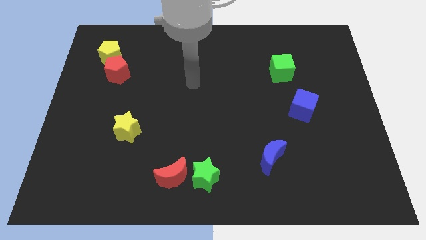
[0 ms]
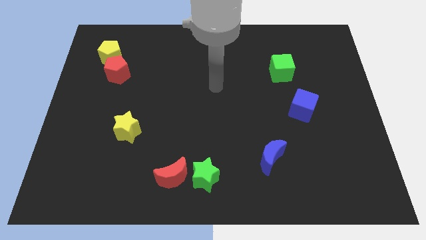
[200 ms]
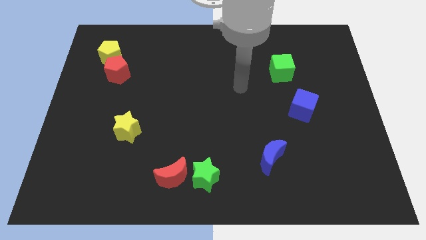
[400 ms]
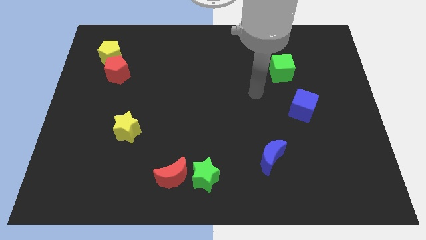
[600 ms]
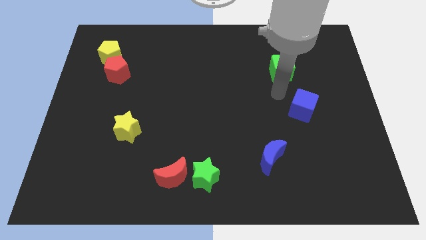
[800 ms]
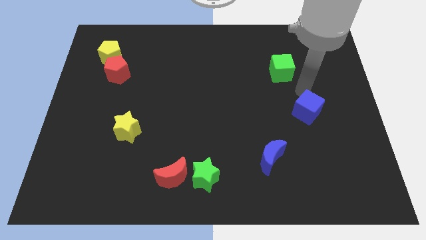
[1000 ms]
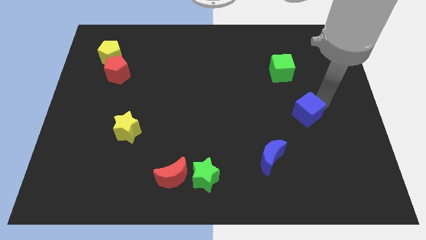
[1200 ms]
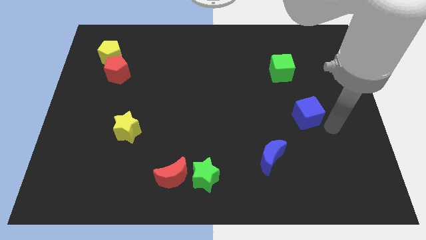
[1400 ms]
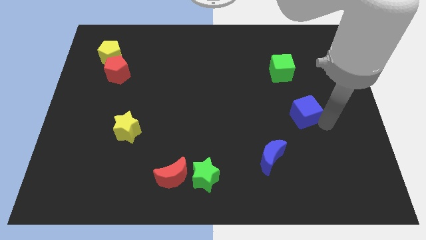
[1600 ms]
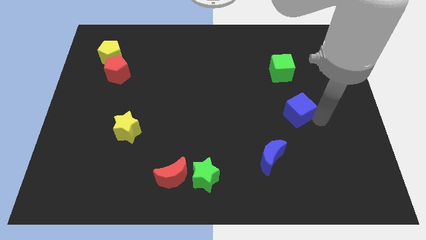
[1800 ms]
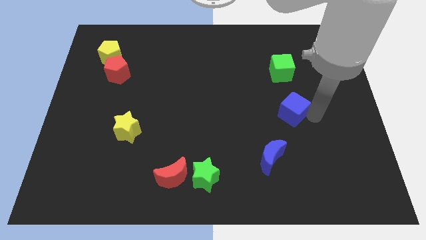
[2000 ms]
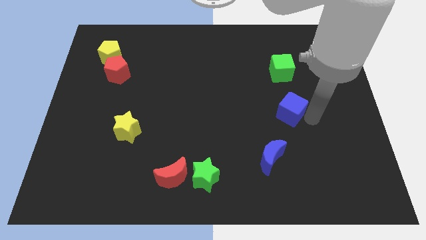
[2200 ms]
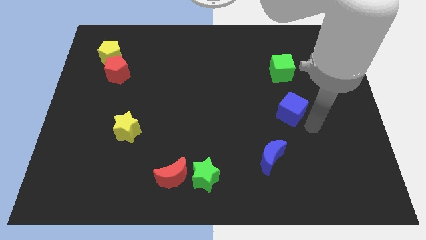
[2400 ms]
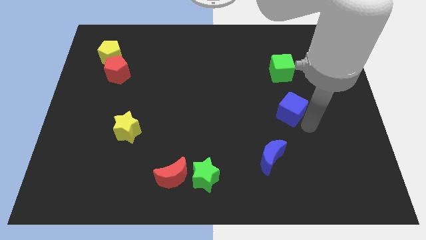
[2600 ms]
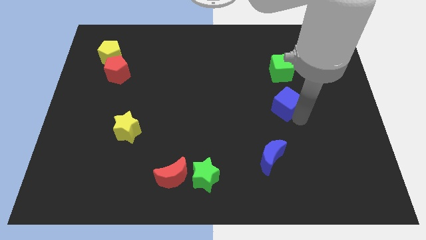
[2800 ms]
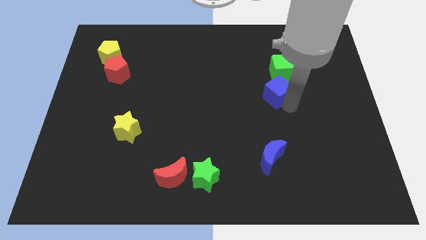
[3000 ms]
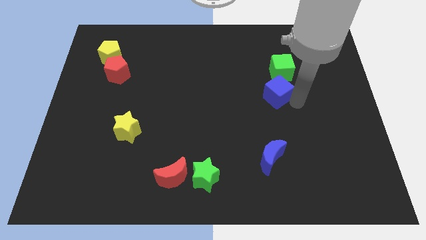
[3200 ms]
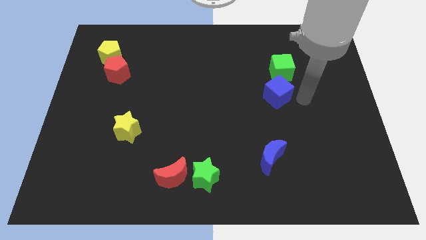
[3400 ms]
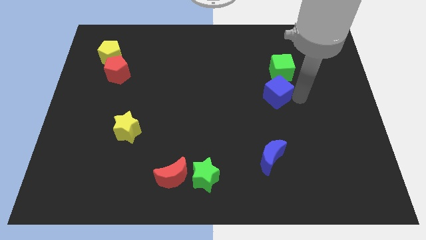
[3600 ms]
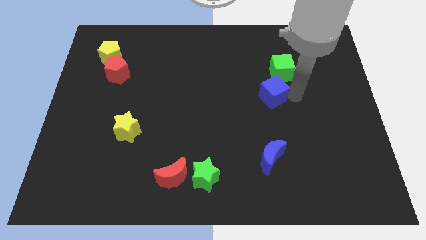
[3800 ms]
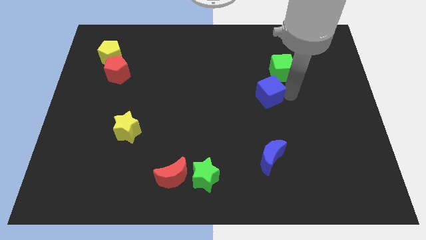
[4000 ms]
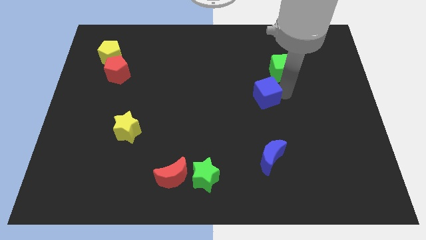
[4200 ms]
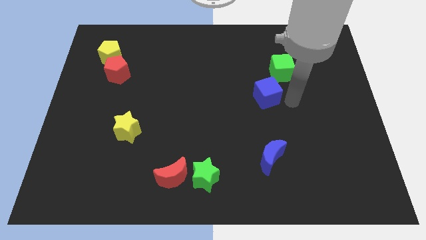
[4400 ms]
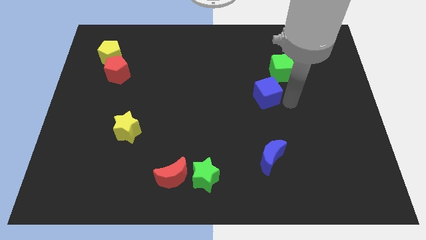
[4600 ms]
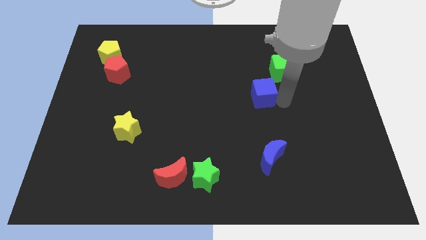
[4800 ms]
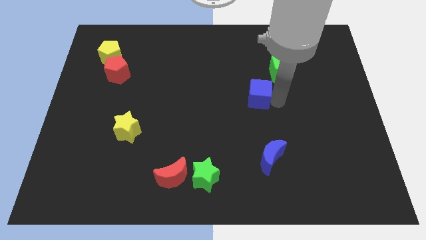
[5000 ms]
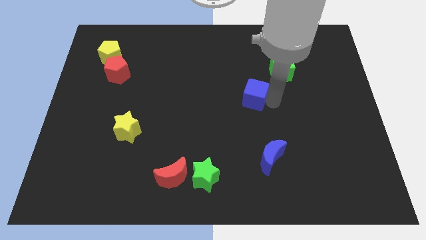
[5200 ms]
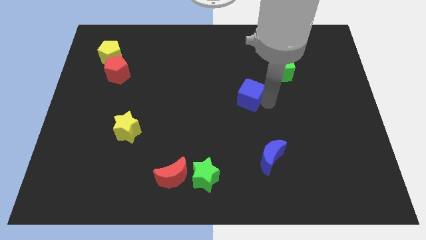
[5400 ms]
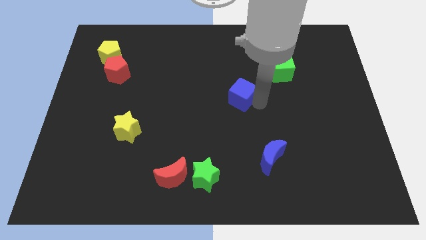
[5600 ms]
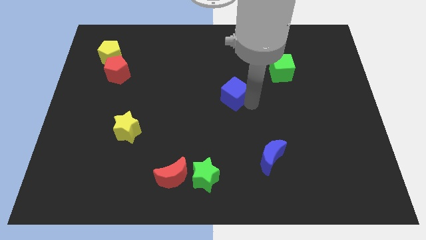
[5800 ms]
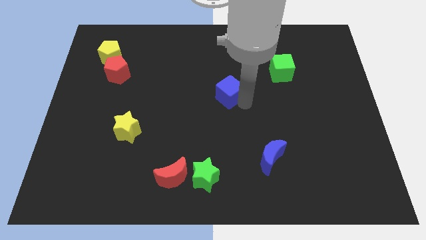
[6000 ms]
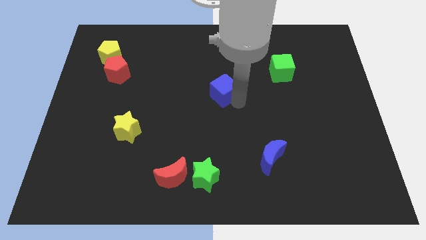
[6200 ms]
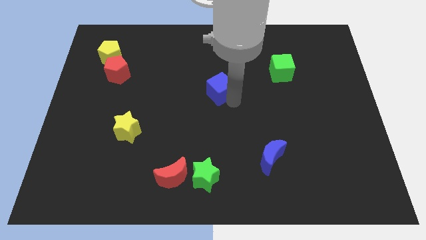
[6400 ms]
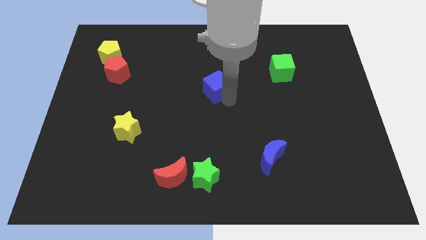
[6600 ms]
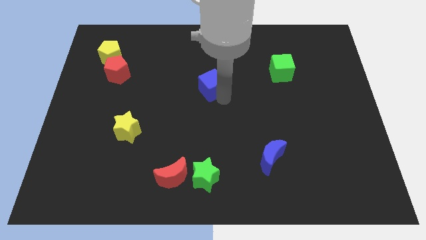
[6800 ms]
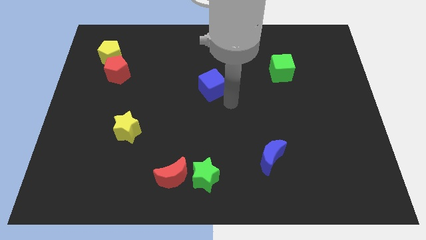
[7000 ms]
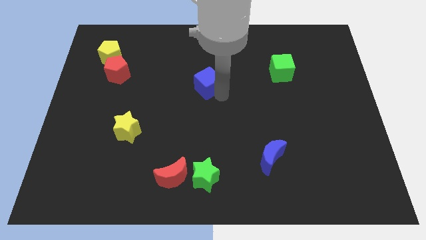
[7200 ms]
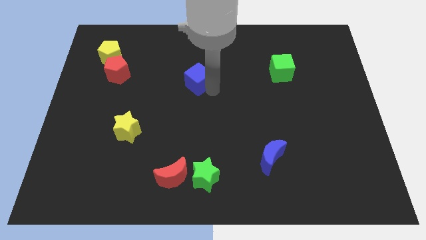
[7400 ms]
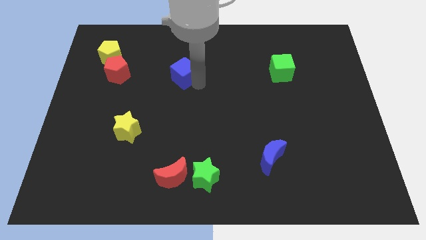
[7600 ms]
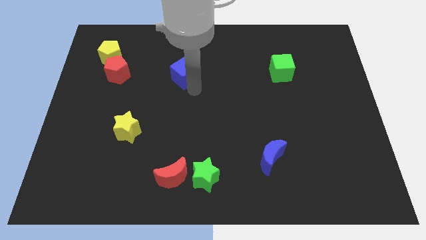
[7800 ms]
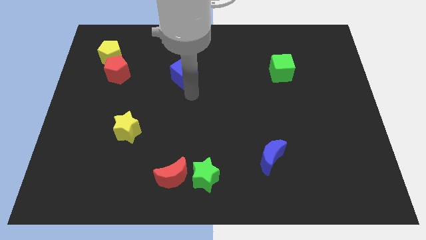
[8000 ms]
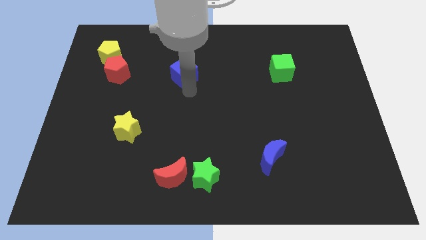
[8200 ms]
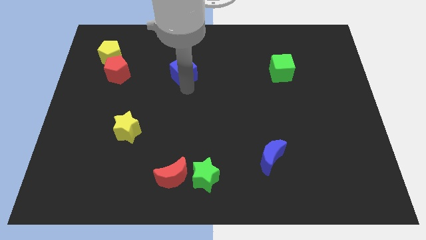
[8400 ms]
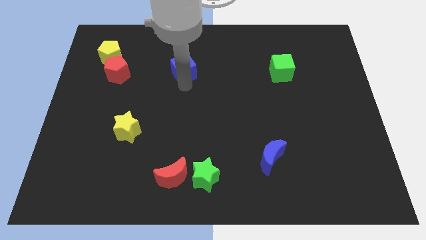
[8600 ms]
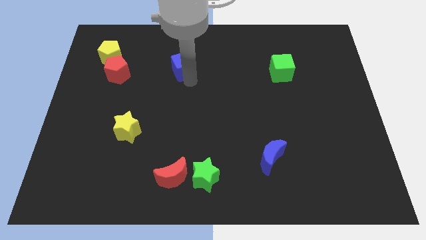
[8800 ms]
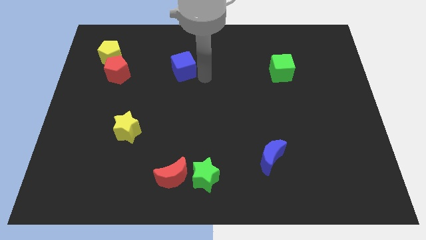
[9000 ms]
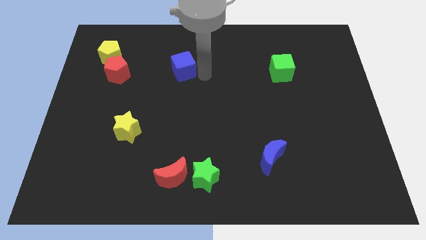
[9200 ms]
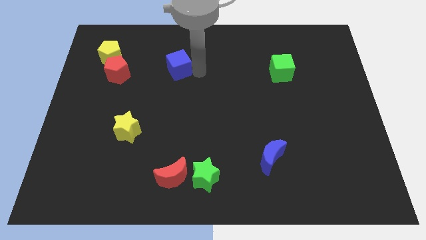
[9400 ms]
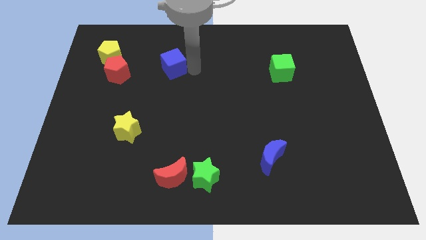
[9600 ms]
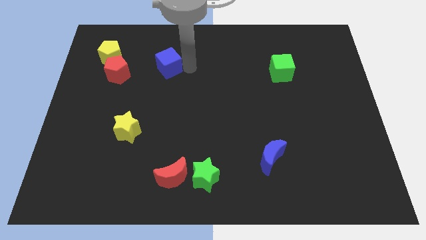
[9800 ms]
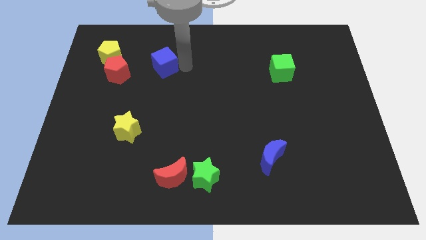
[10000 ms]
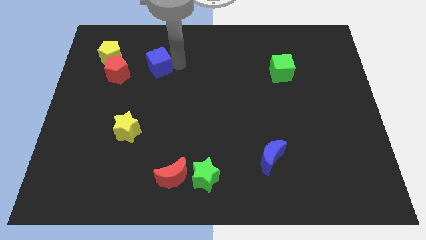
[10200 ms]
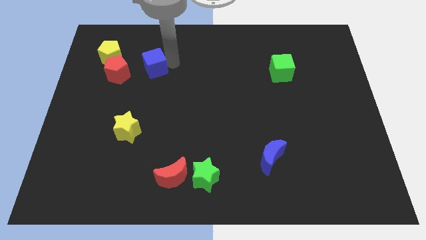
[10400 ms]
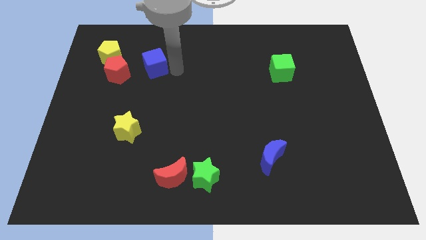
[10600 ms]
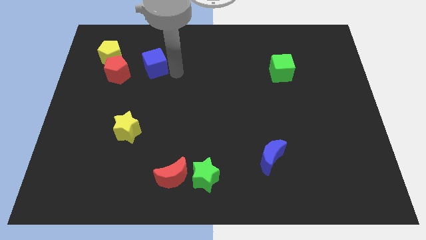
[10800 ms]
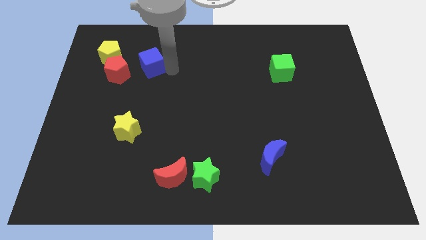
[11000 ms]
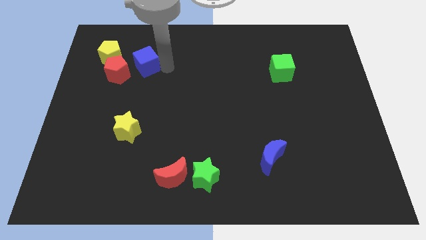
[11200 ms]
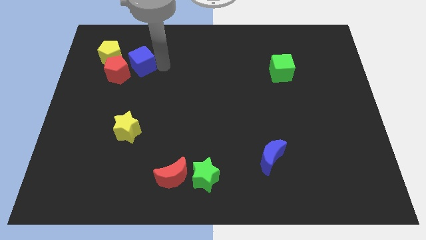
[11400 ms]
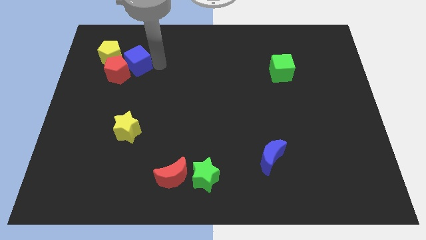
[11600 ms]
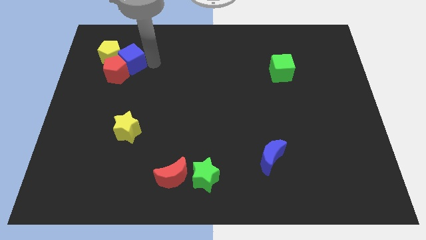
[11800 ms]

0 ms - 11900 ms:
slide the blue cube next to the yellow pentagon

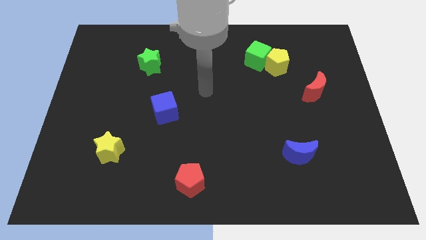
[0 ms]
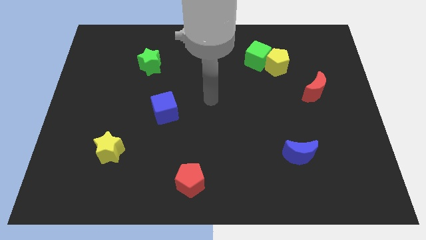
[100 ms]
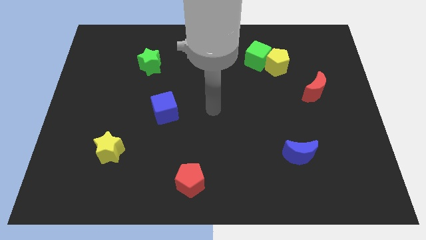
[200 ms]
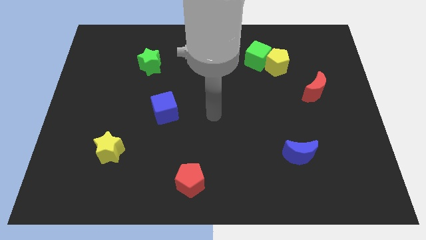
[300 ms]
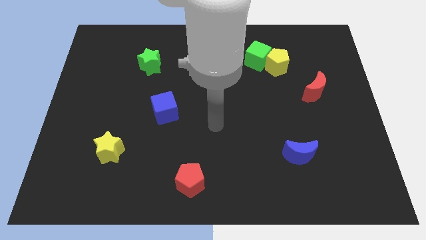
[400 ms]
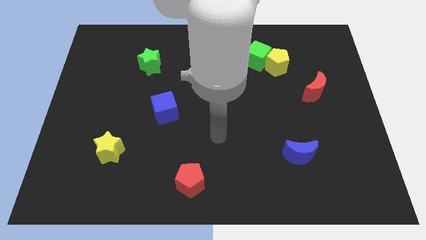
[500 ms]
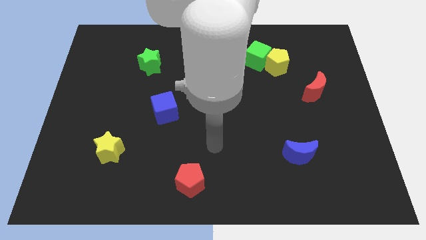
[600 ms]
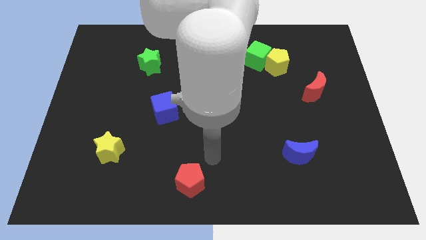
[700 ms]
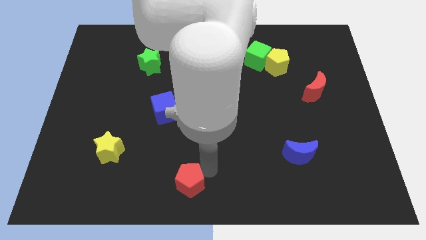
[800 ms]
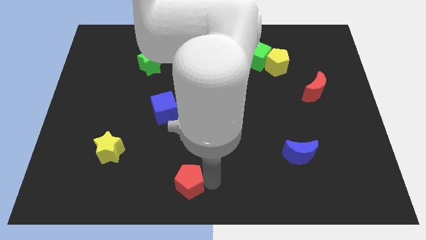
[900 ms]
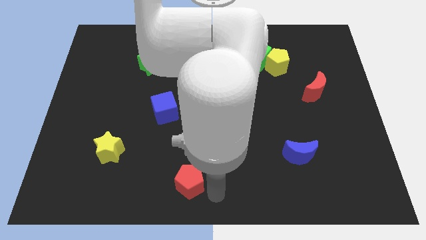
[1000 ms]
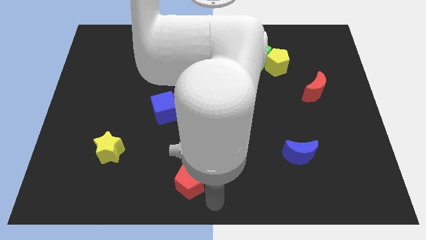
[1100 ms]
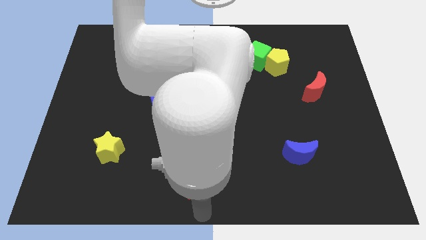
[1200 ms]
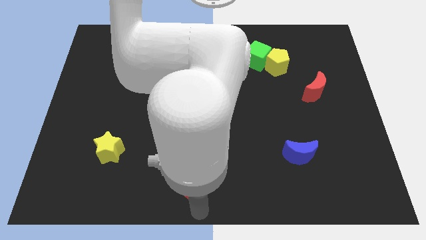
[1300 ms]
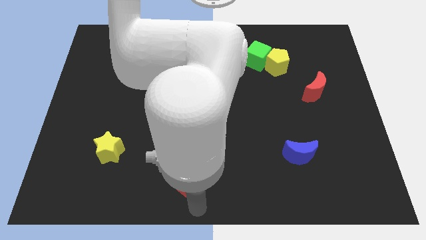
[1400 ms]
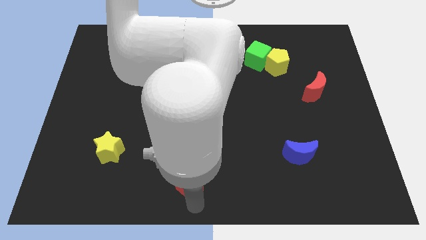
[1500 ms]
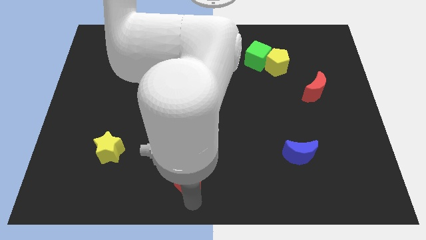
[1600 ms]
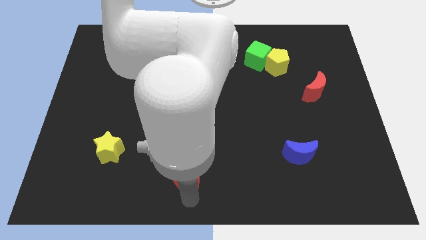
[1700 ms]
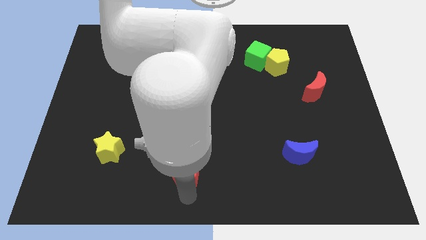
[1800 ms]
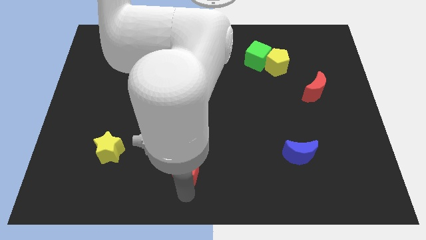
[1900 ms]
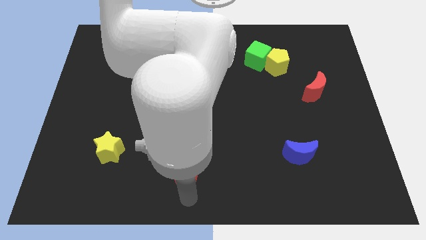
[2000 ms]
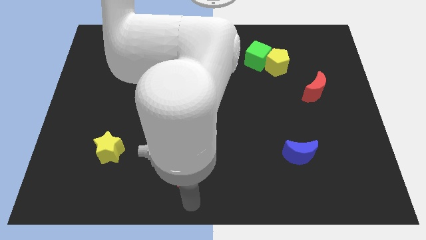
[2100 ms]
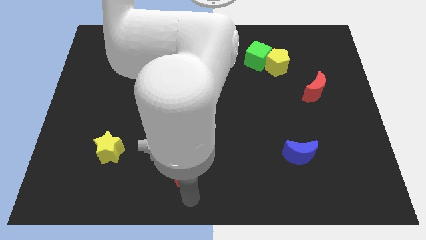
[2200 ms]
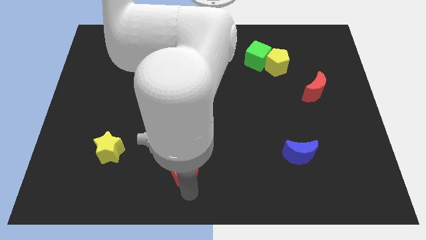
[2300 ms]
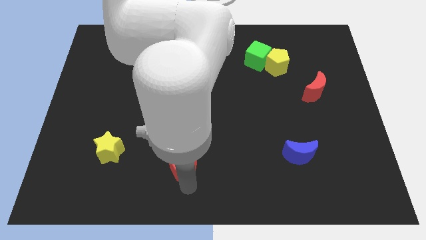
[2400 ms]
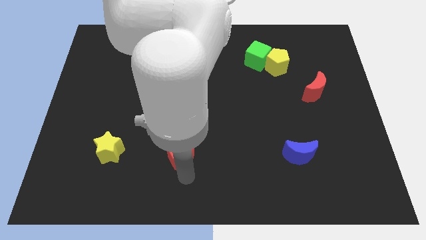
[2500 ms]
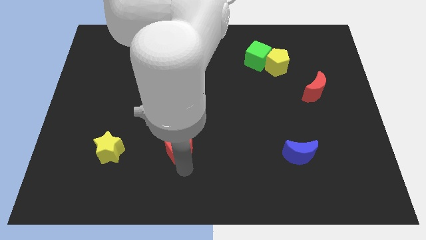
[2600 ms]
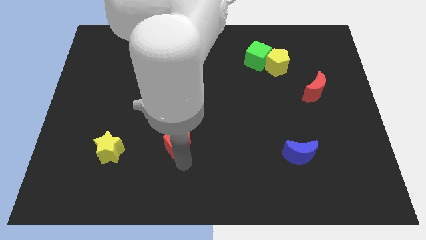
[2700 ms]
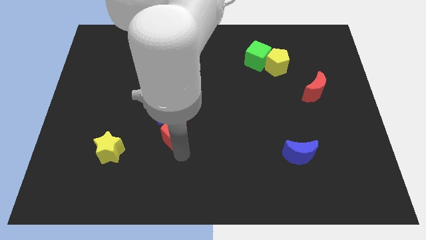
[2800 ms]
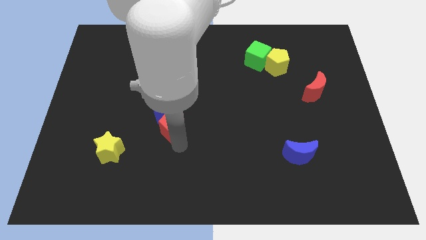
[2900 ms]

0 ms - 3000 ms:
push the red pentagon towards the blue cube
